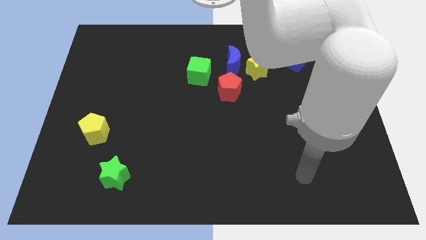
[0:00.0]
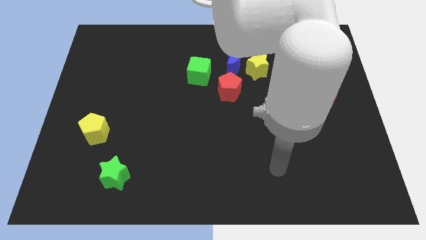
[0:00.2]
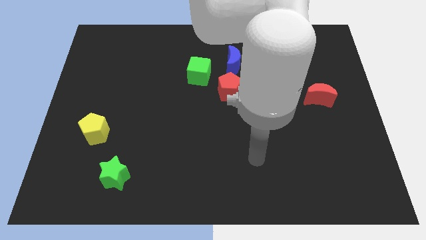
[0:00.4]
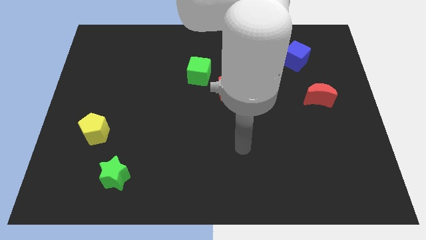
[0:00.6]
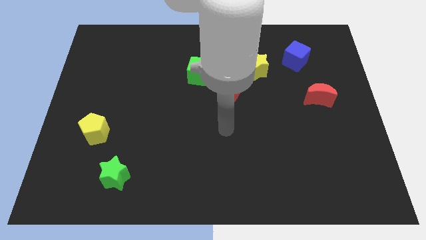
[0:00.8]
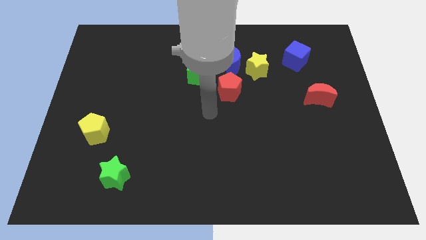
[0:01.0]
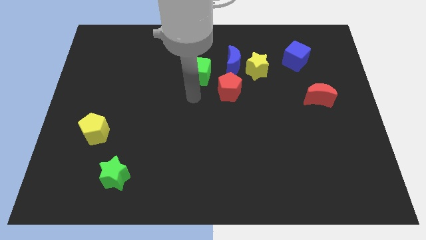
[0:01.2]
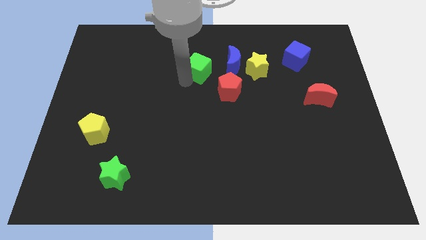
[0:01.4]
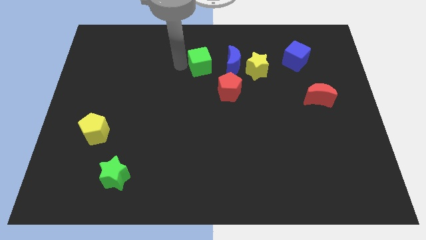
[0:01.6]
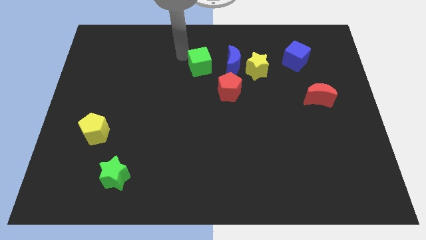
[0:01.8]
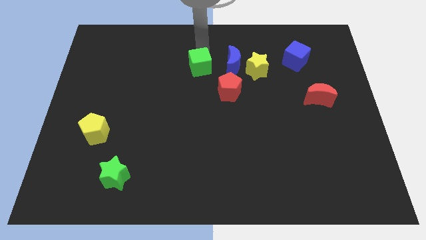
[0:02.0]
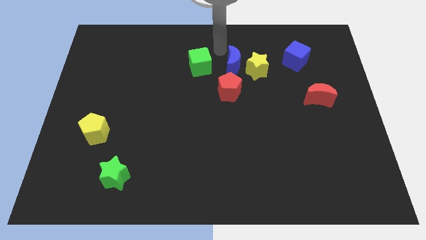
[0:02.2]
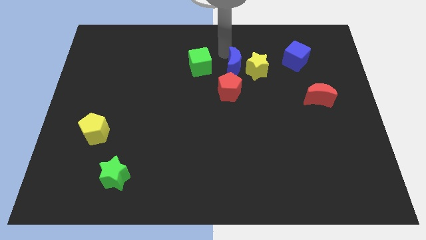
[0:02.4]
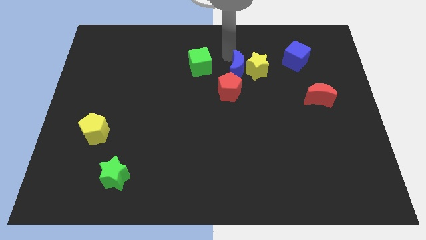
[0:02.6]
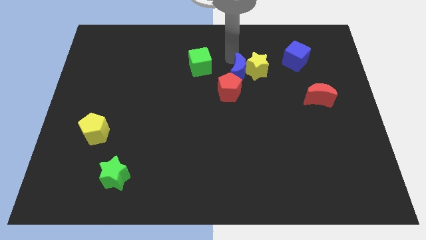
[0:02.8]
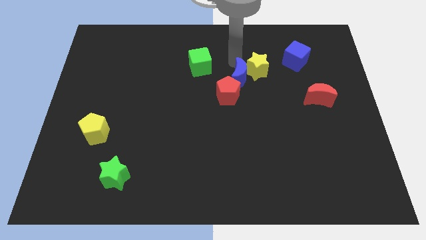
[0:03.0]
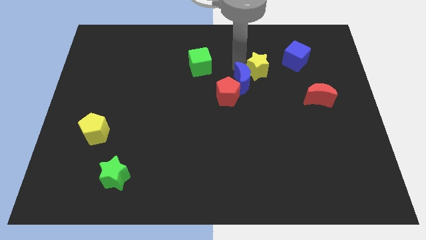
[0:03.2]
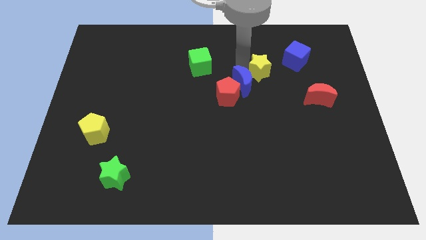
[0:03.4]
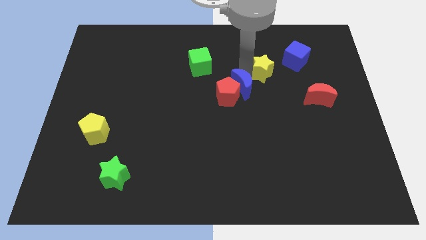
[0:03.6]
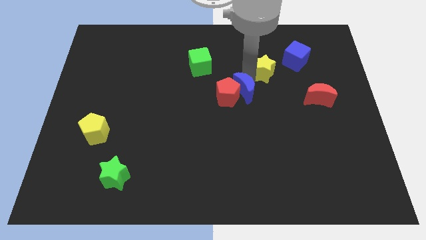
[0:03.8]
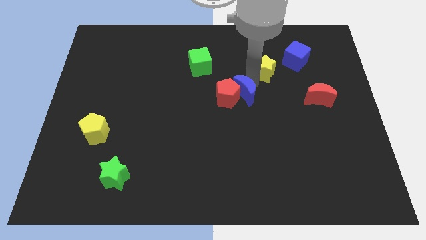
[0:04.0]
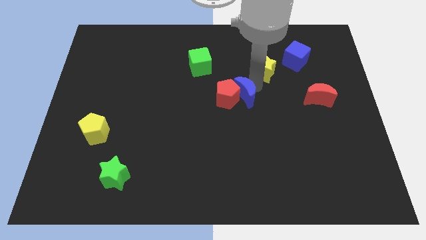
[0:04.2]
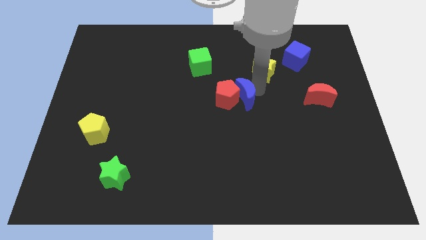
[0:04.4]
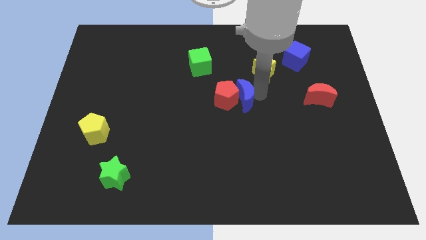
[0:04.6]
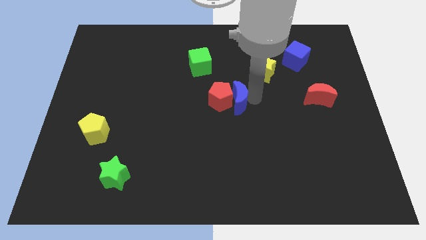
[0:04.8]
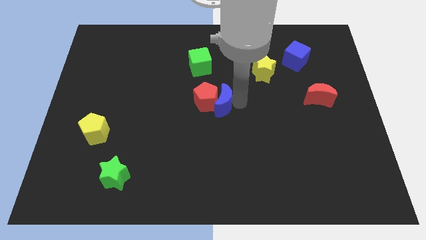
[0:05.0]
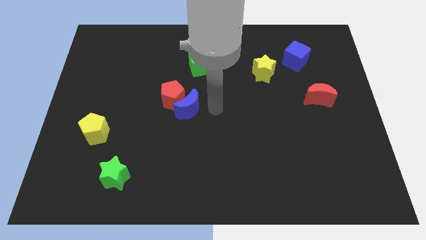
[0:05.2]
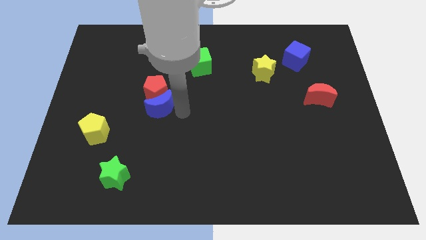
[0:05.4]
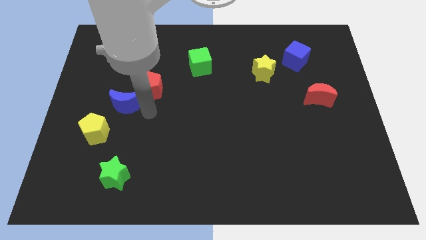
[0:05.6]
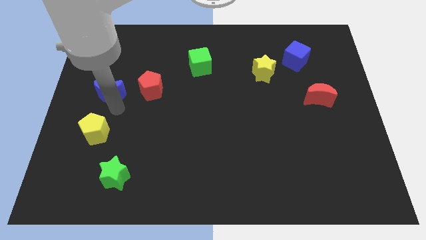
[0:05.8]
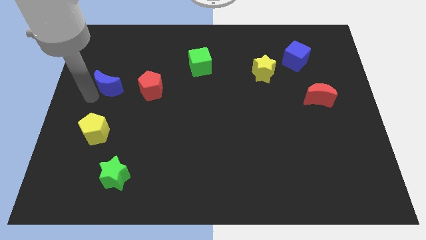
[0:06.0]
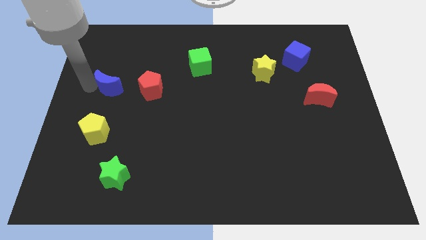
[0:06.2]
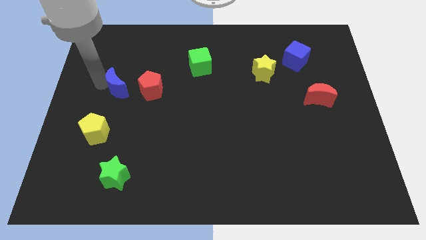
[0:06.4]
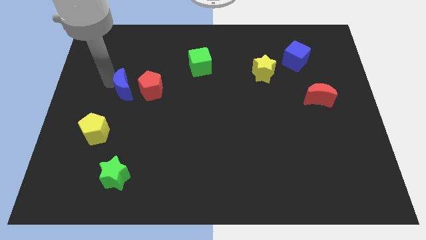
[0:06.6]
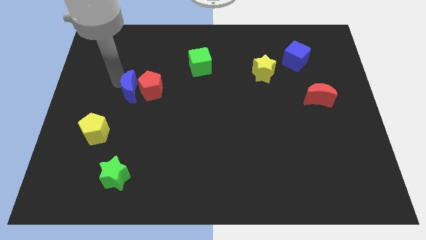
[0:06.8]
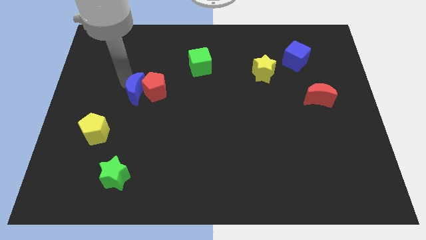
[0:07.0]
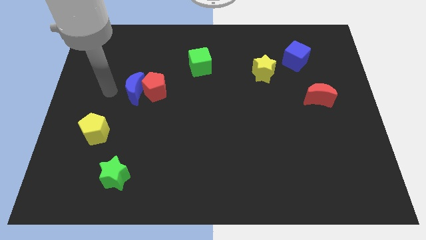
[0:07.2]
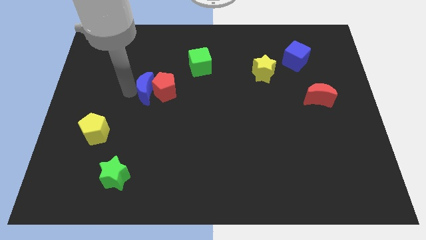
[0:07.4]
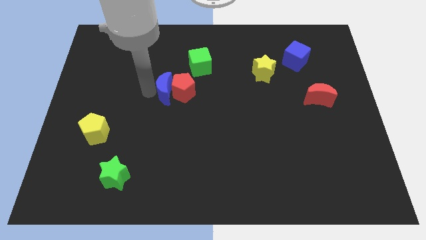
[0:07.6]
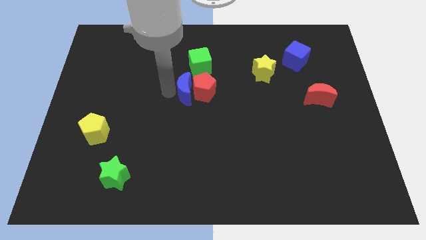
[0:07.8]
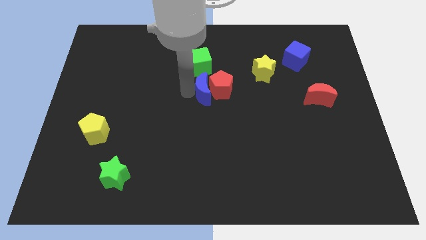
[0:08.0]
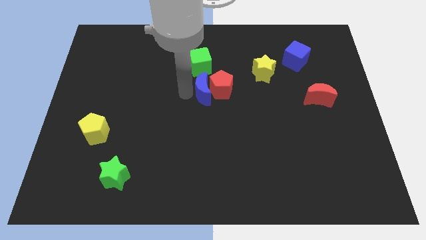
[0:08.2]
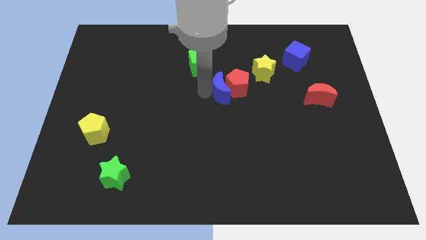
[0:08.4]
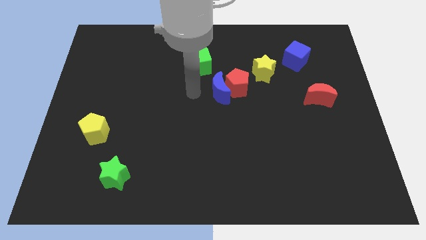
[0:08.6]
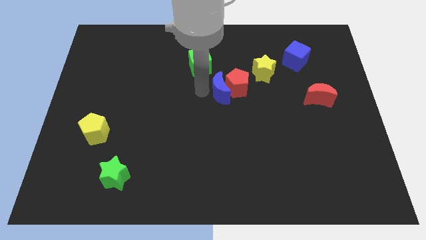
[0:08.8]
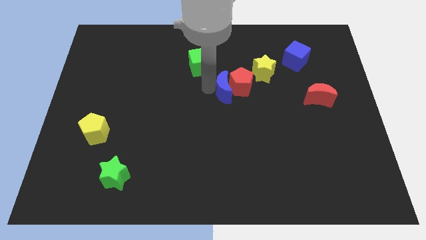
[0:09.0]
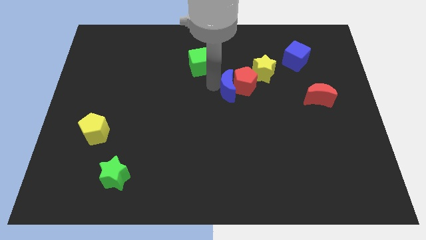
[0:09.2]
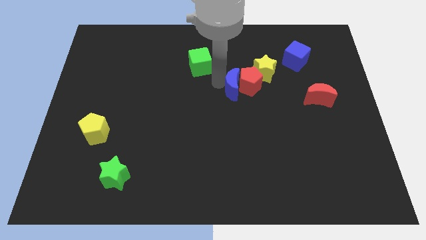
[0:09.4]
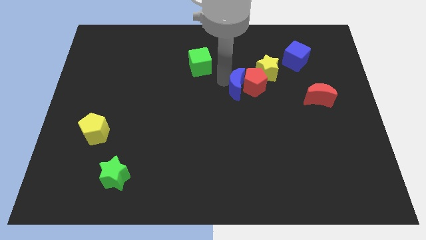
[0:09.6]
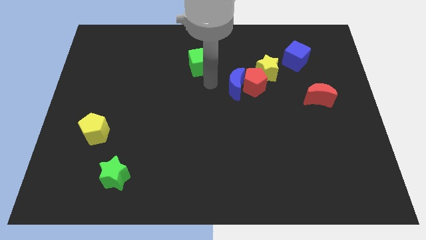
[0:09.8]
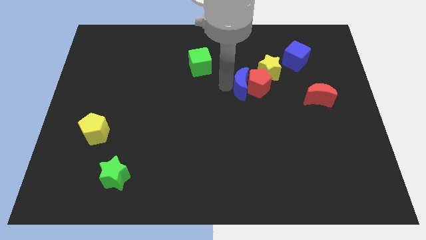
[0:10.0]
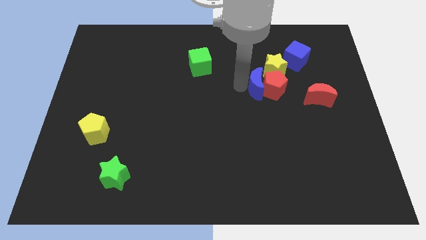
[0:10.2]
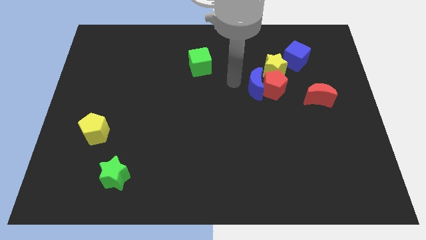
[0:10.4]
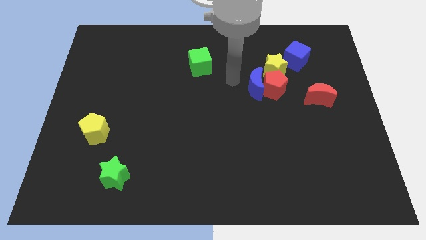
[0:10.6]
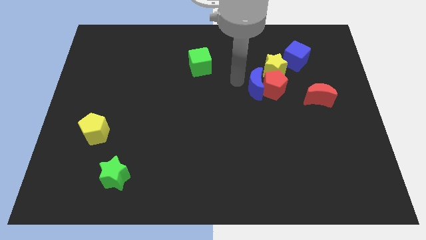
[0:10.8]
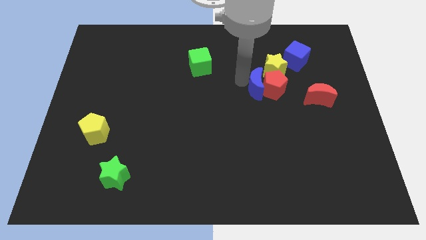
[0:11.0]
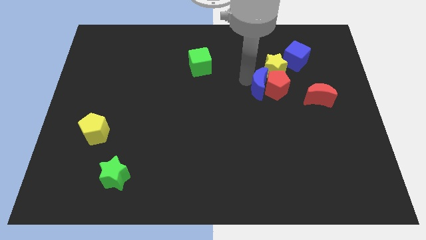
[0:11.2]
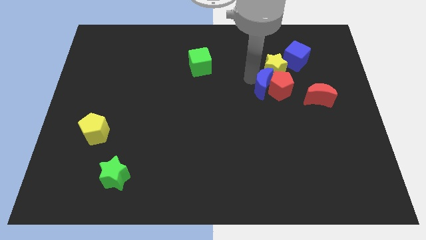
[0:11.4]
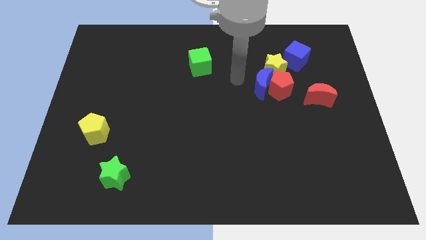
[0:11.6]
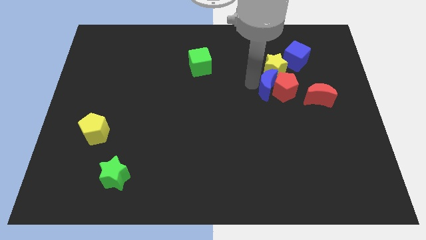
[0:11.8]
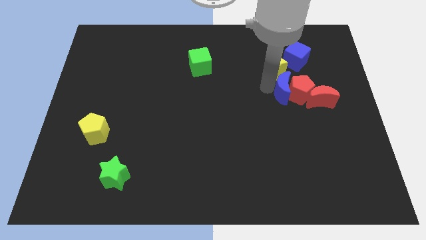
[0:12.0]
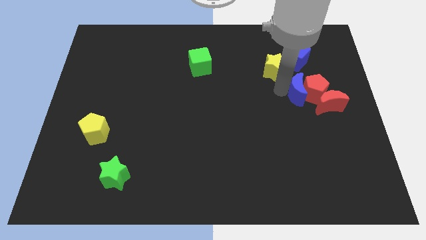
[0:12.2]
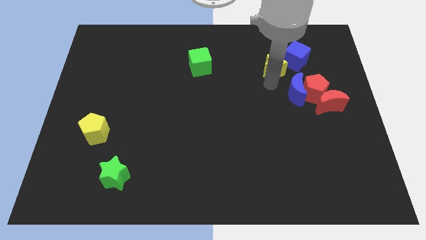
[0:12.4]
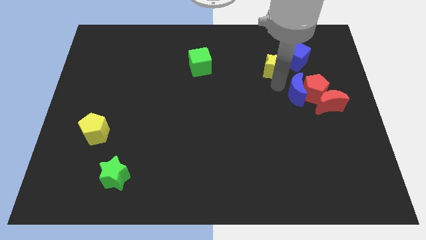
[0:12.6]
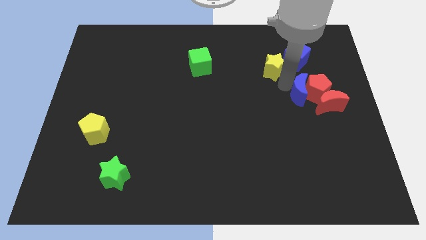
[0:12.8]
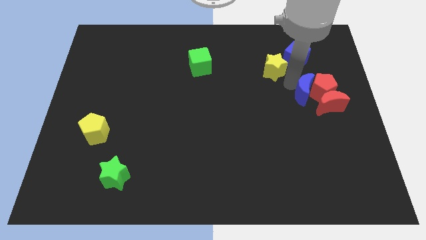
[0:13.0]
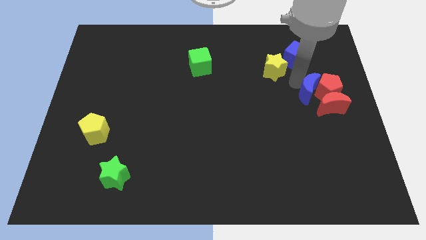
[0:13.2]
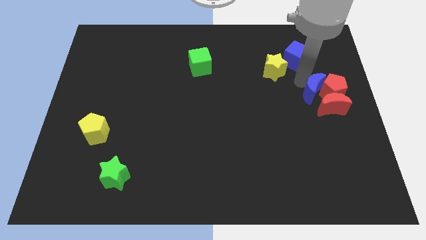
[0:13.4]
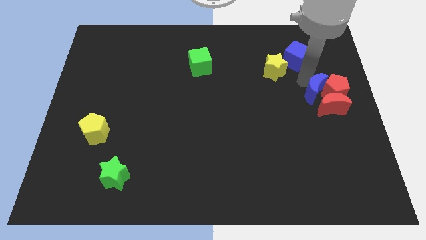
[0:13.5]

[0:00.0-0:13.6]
move the blue moon towards the red moon

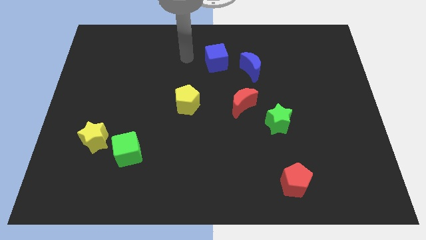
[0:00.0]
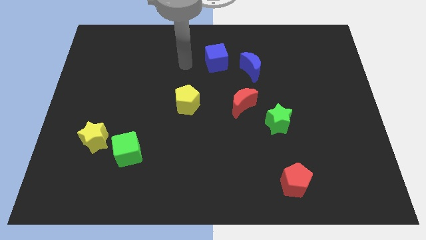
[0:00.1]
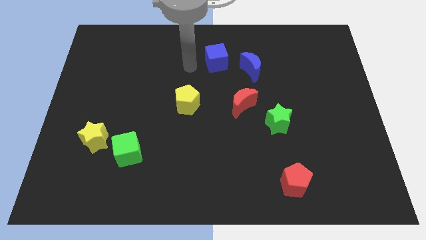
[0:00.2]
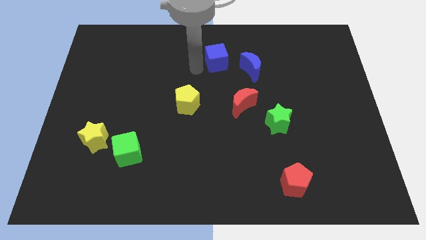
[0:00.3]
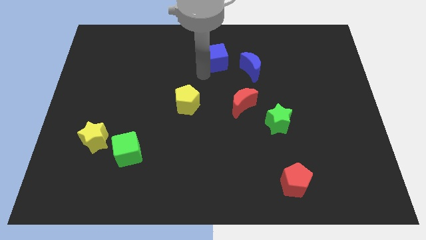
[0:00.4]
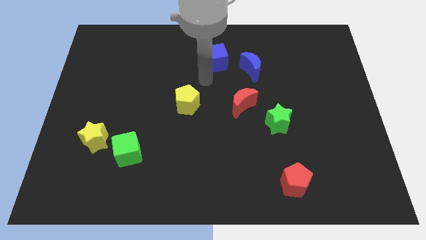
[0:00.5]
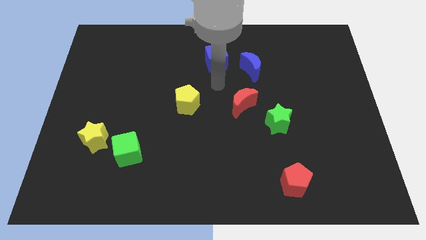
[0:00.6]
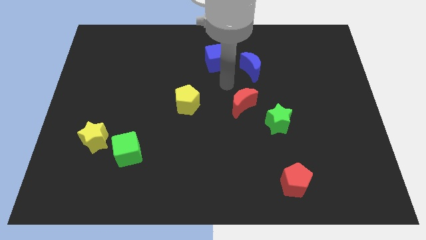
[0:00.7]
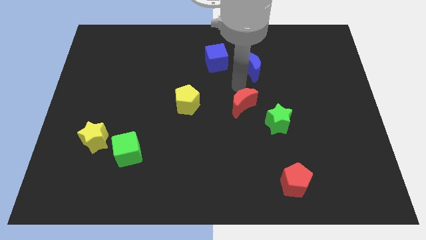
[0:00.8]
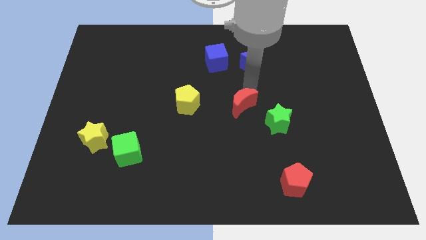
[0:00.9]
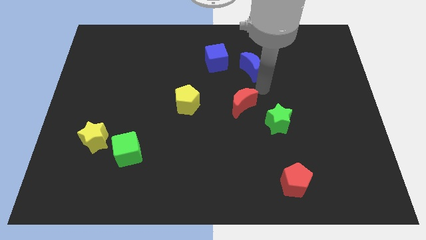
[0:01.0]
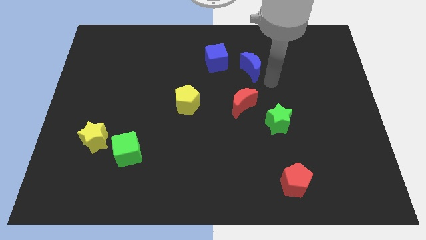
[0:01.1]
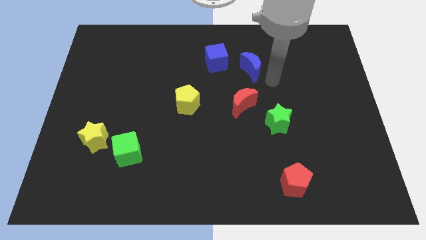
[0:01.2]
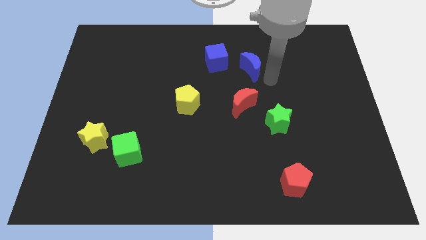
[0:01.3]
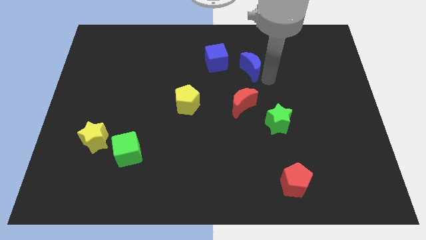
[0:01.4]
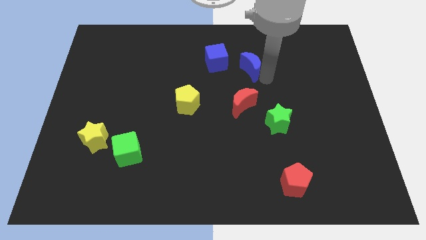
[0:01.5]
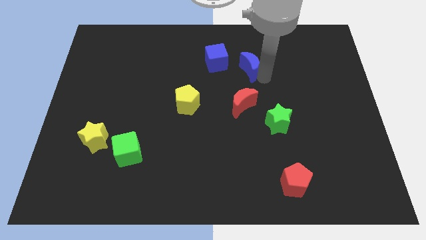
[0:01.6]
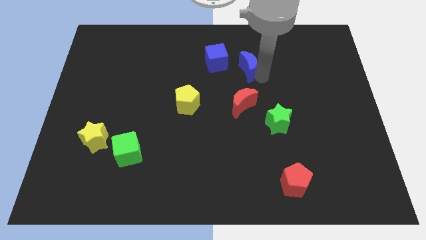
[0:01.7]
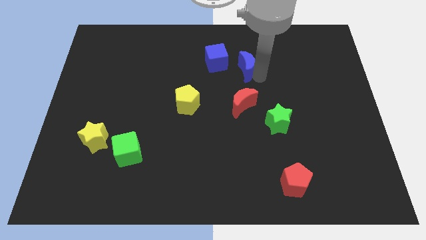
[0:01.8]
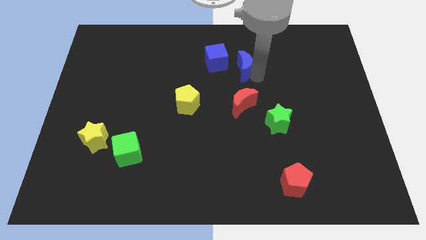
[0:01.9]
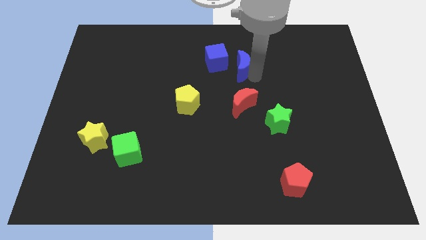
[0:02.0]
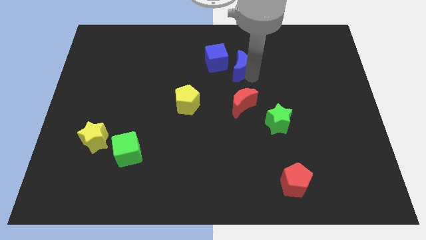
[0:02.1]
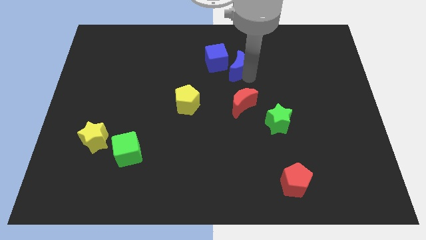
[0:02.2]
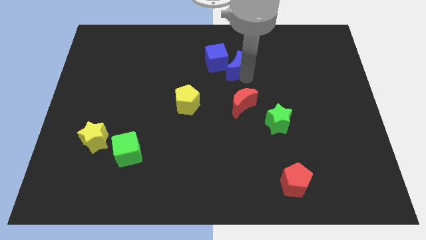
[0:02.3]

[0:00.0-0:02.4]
push the blue moon next to the blue cube
